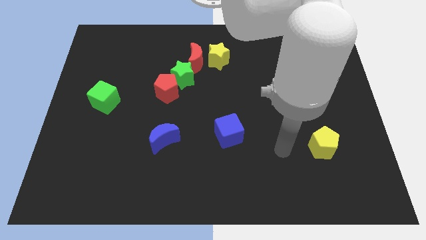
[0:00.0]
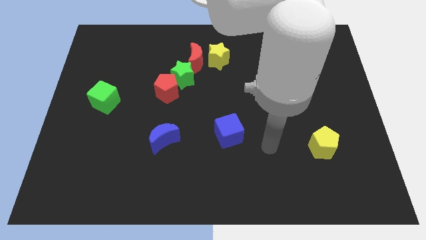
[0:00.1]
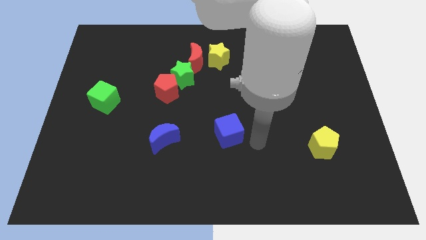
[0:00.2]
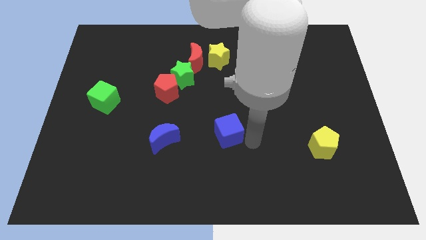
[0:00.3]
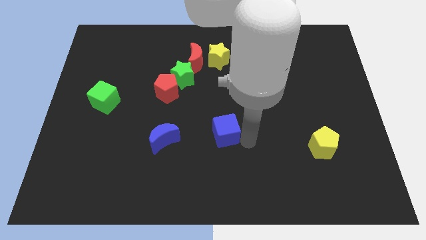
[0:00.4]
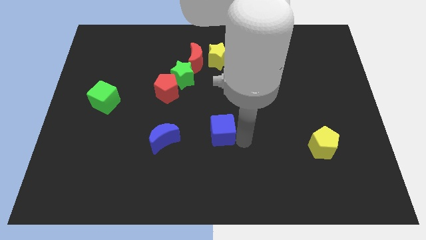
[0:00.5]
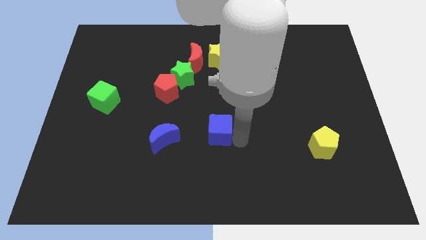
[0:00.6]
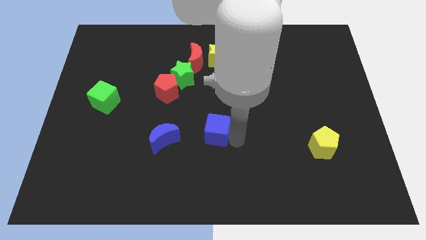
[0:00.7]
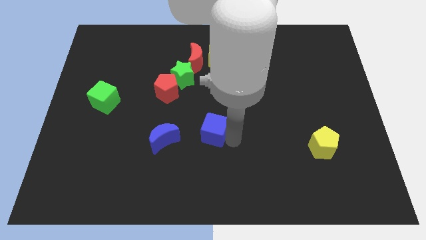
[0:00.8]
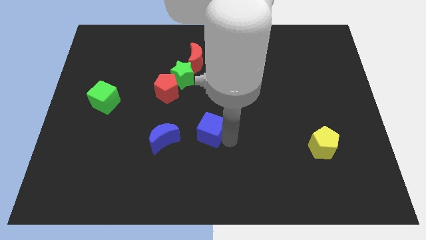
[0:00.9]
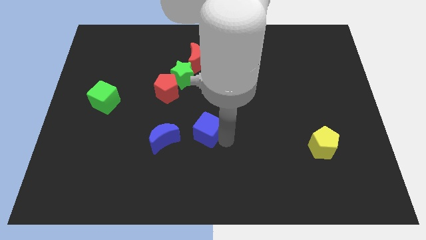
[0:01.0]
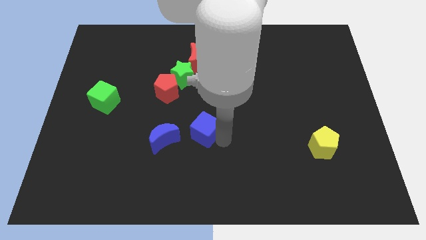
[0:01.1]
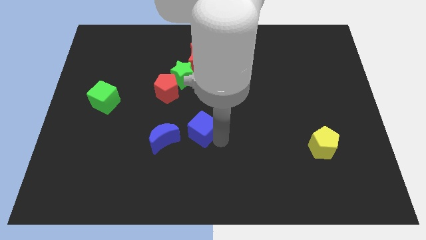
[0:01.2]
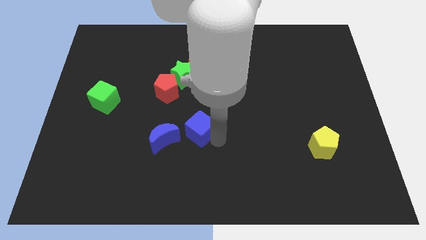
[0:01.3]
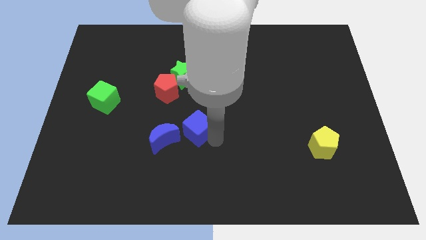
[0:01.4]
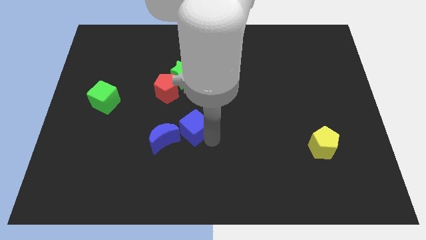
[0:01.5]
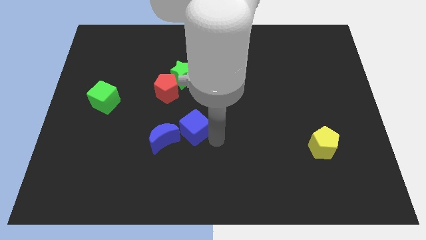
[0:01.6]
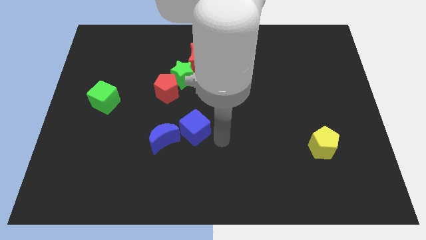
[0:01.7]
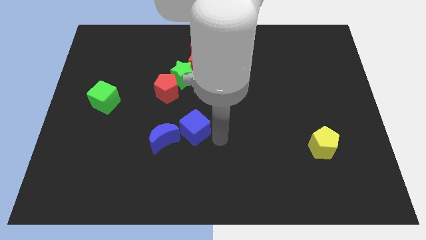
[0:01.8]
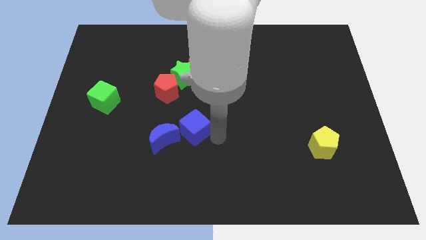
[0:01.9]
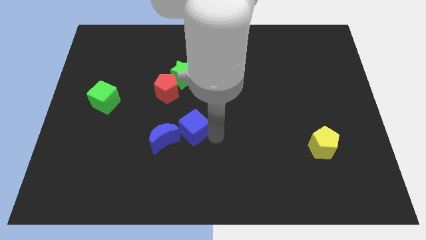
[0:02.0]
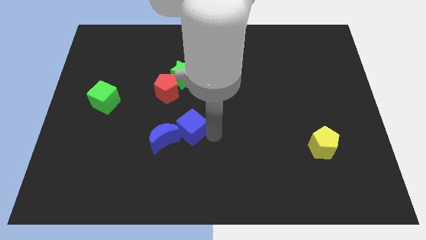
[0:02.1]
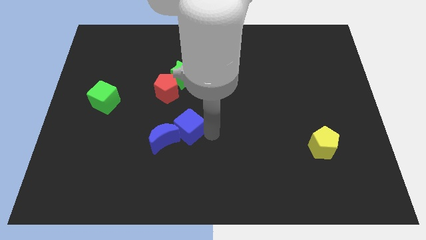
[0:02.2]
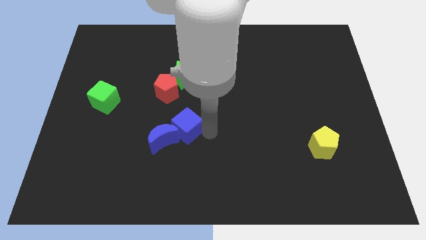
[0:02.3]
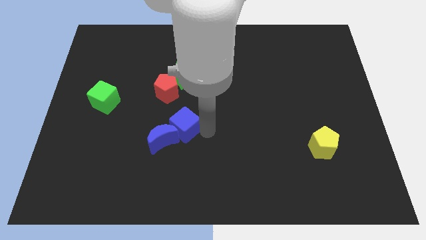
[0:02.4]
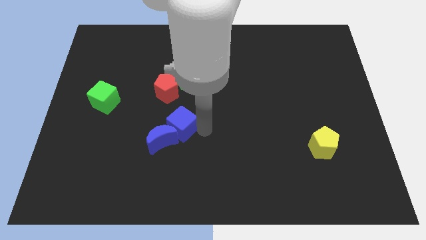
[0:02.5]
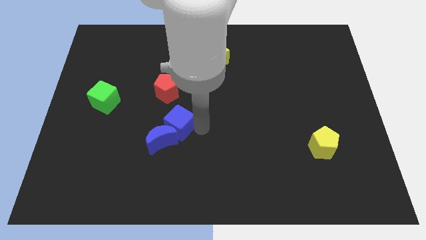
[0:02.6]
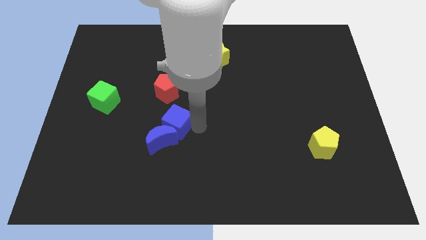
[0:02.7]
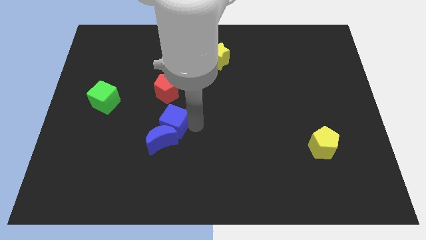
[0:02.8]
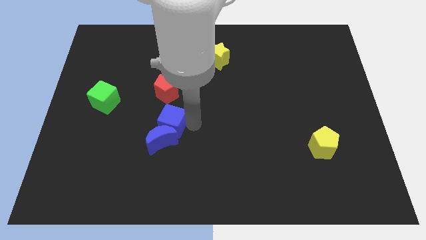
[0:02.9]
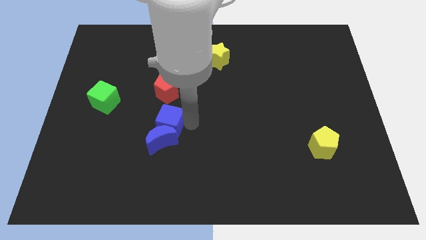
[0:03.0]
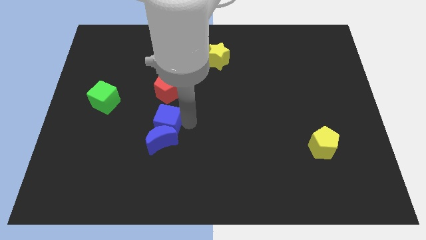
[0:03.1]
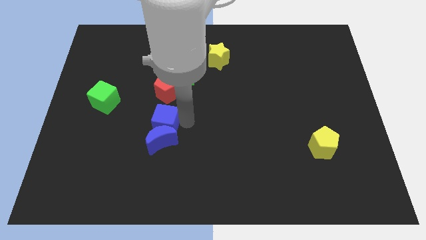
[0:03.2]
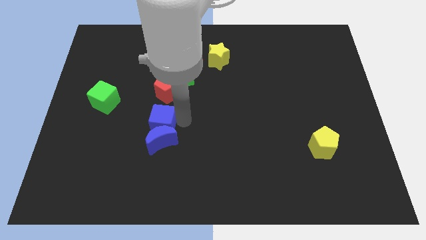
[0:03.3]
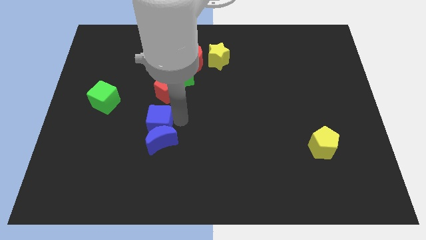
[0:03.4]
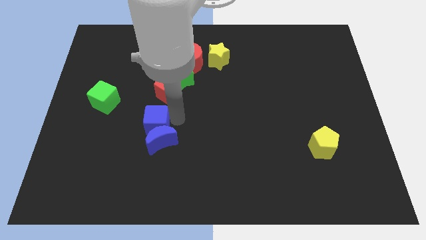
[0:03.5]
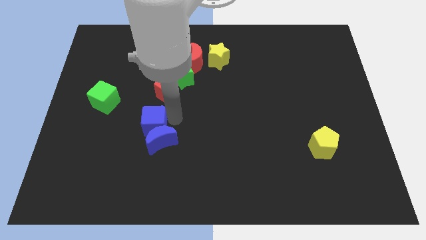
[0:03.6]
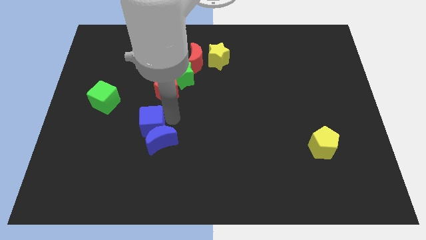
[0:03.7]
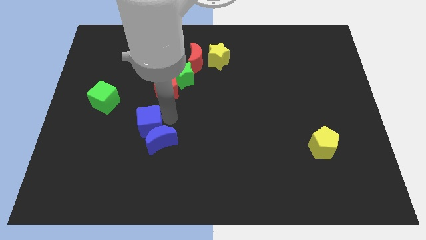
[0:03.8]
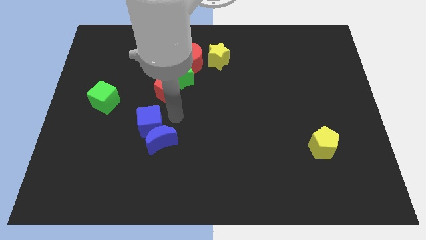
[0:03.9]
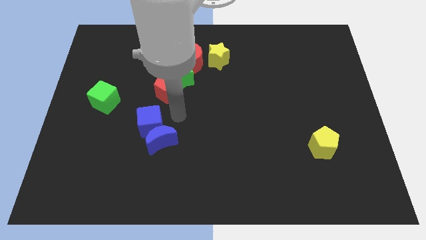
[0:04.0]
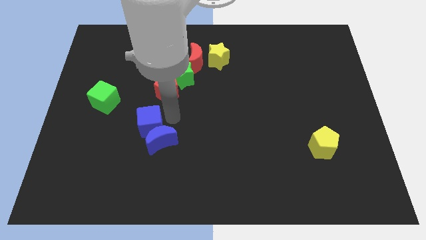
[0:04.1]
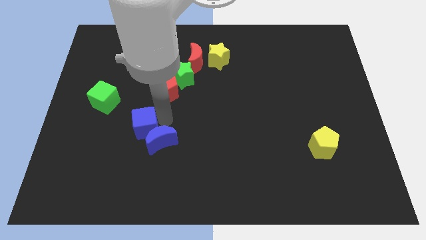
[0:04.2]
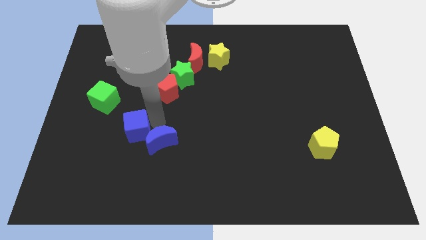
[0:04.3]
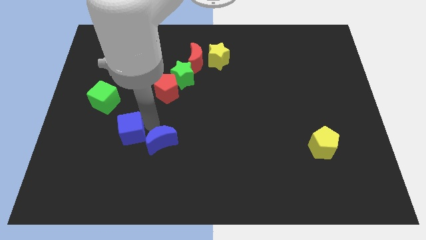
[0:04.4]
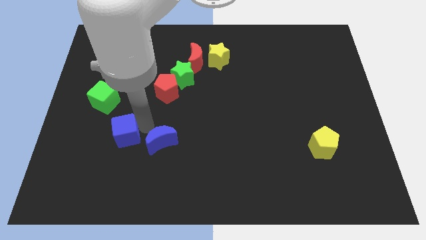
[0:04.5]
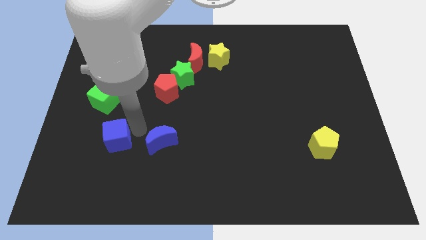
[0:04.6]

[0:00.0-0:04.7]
push the blue cube to the bottom side of the green cube

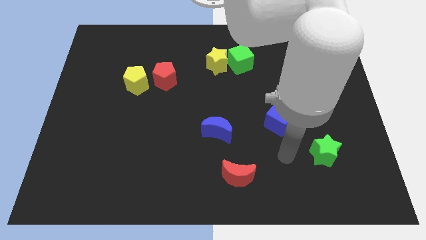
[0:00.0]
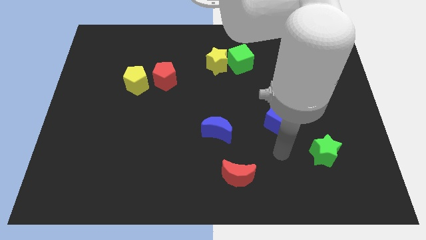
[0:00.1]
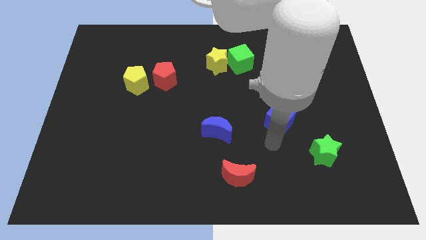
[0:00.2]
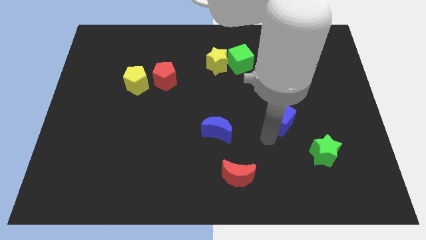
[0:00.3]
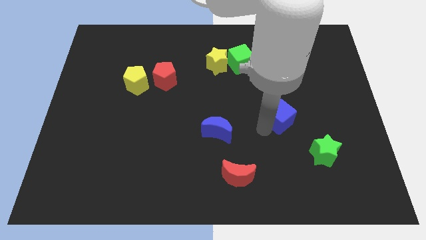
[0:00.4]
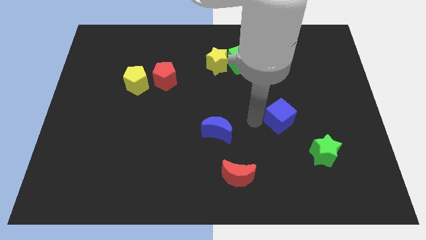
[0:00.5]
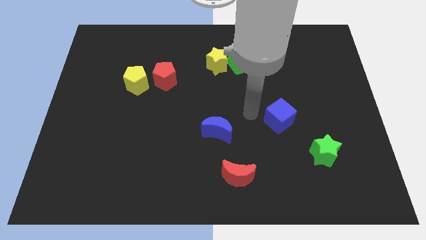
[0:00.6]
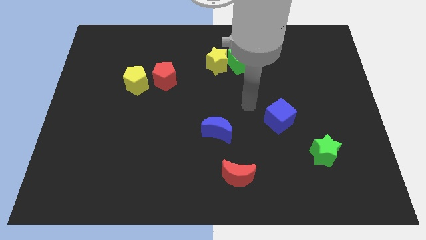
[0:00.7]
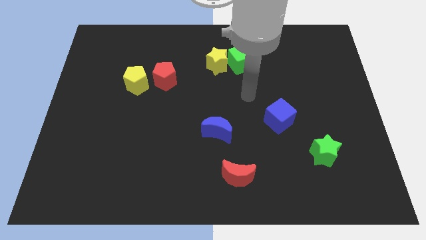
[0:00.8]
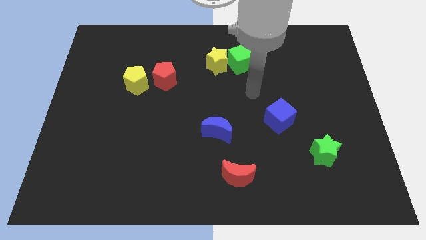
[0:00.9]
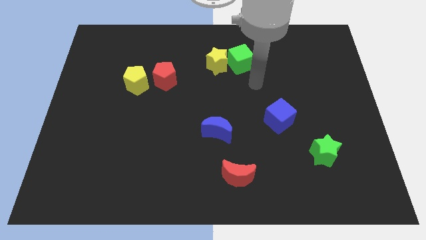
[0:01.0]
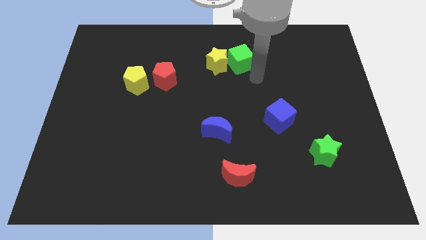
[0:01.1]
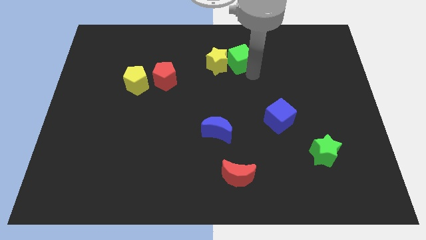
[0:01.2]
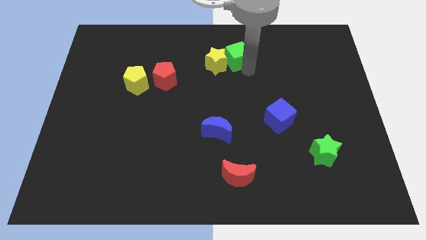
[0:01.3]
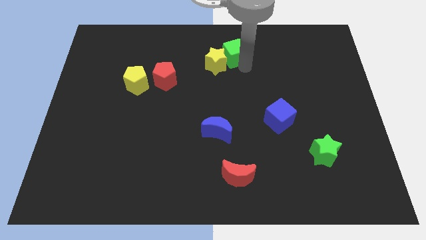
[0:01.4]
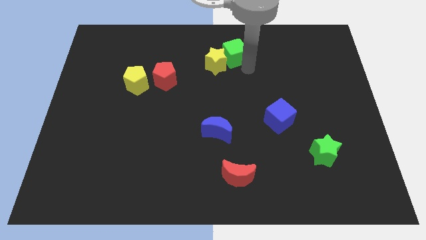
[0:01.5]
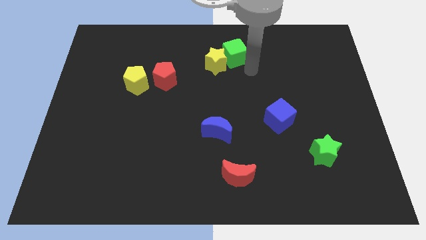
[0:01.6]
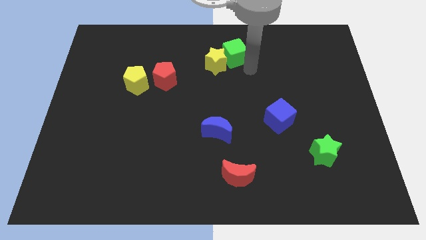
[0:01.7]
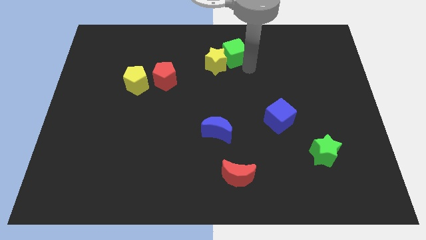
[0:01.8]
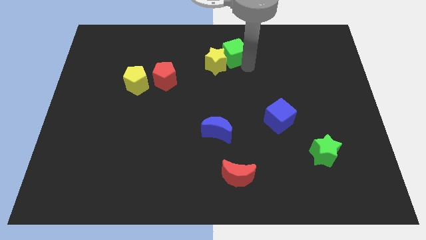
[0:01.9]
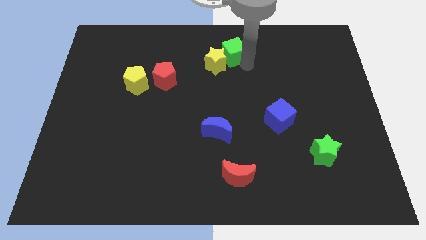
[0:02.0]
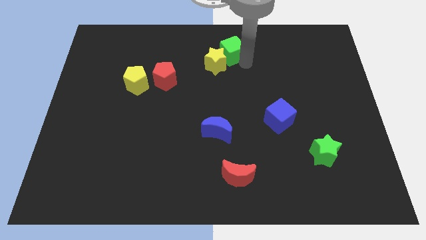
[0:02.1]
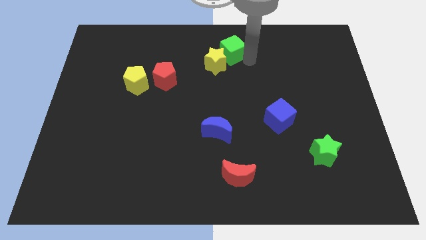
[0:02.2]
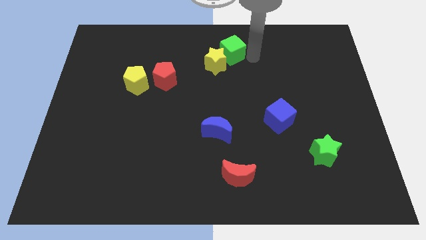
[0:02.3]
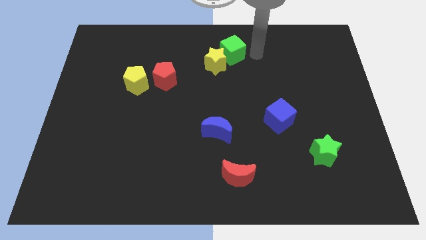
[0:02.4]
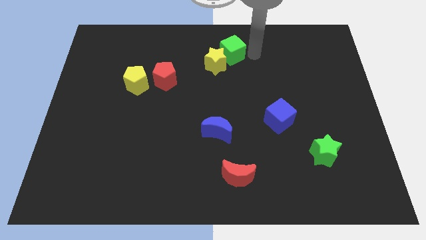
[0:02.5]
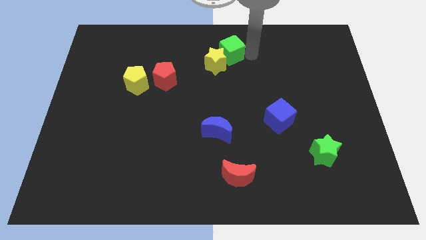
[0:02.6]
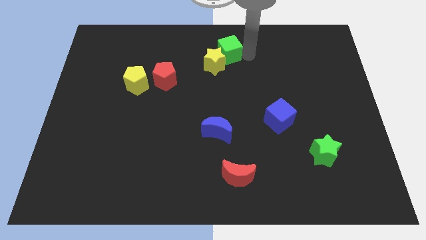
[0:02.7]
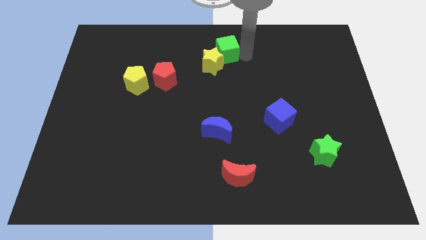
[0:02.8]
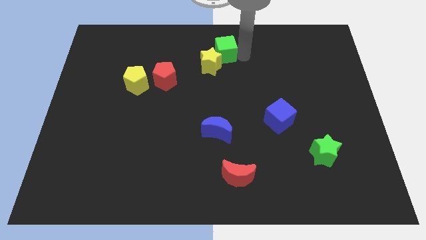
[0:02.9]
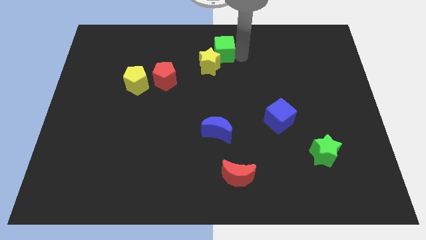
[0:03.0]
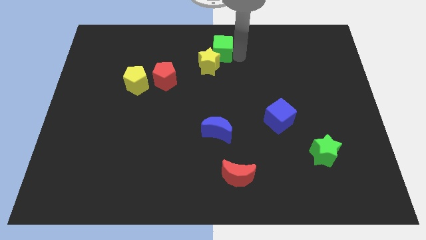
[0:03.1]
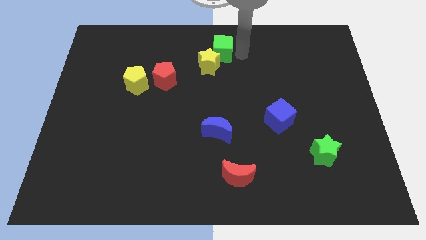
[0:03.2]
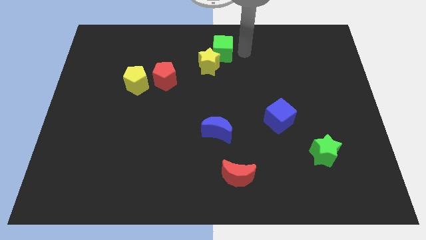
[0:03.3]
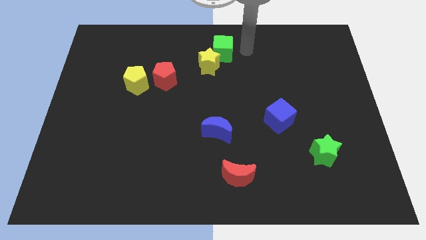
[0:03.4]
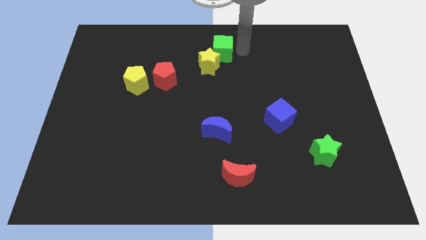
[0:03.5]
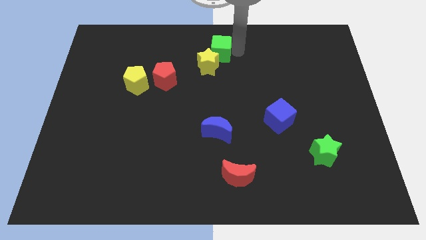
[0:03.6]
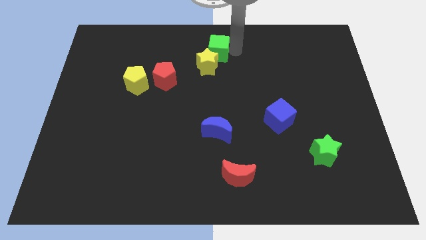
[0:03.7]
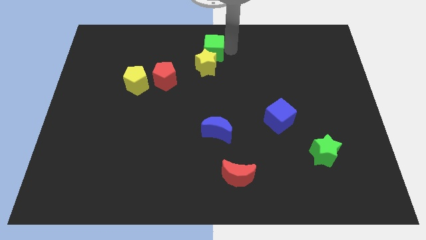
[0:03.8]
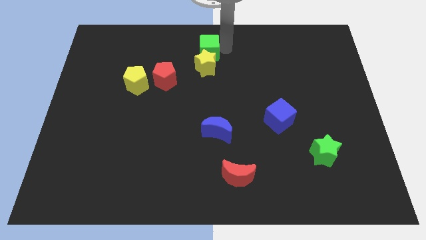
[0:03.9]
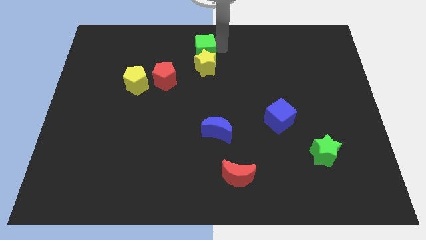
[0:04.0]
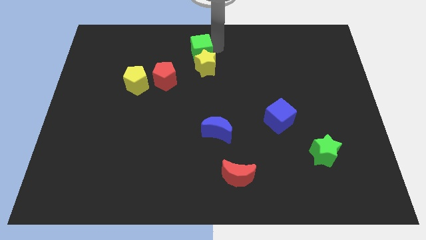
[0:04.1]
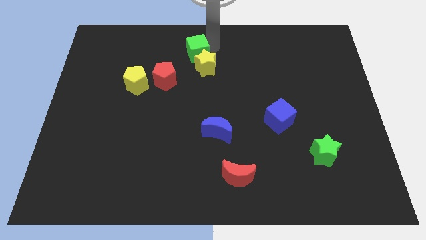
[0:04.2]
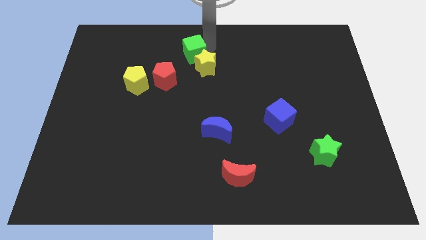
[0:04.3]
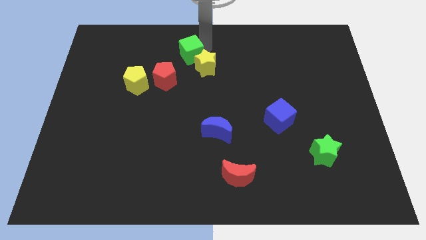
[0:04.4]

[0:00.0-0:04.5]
move the green cube left of the yellow star
